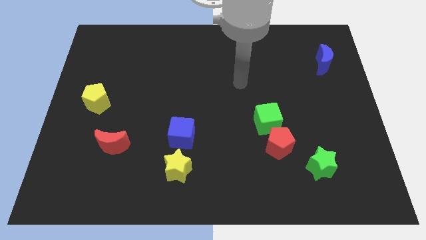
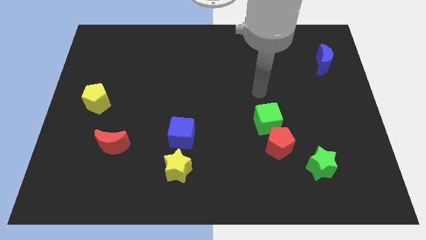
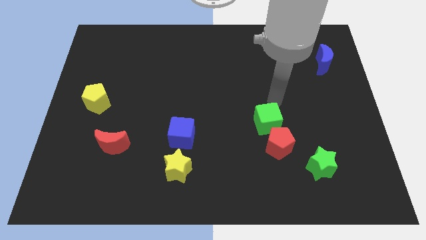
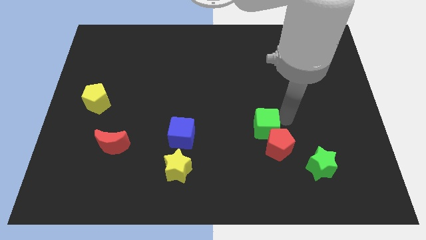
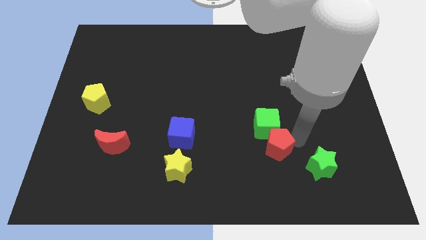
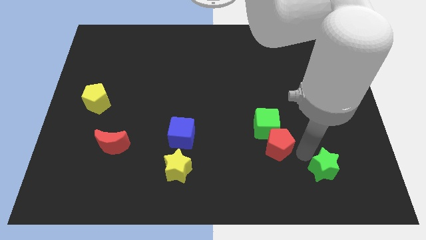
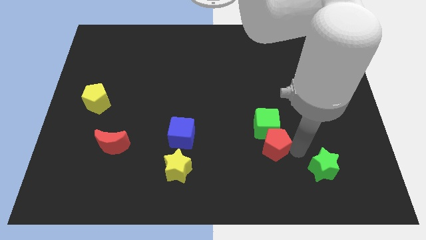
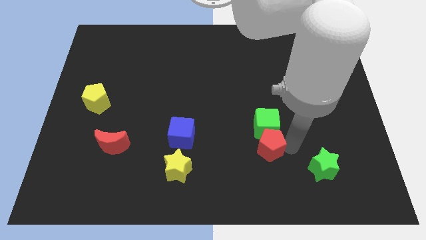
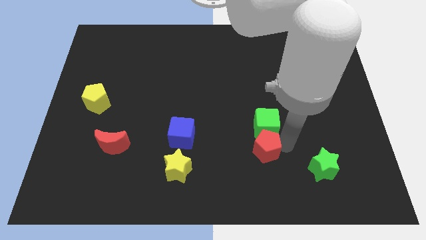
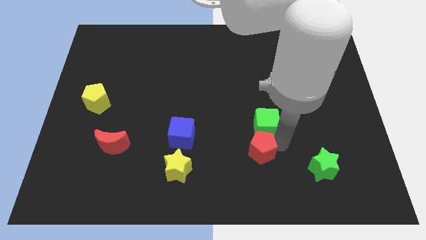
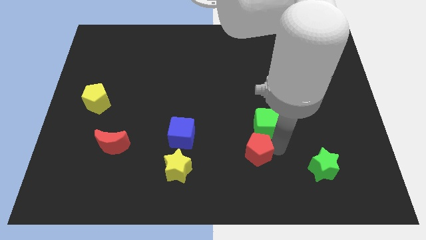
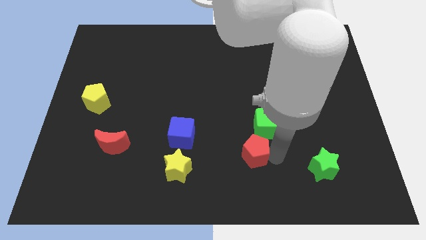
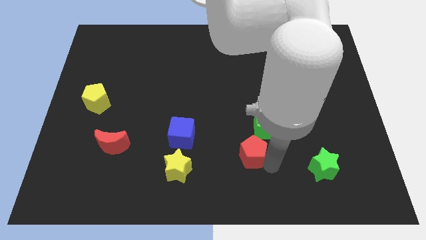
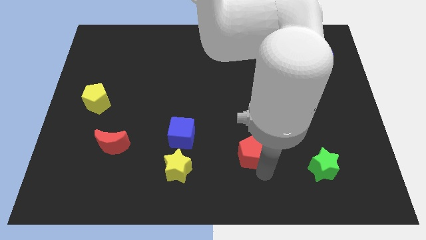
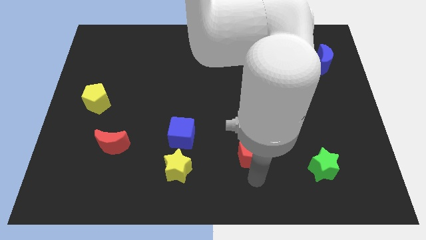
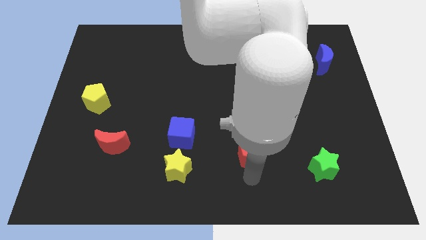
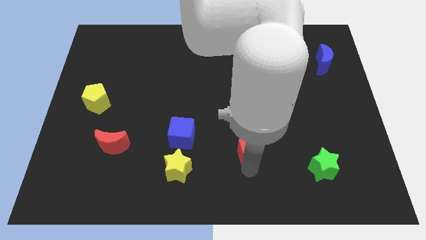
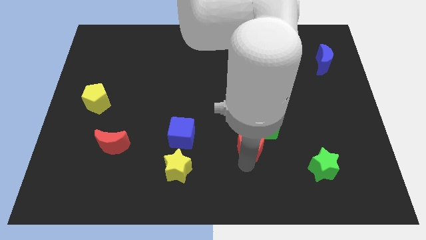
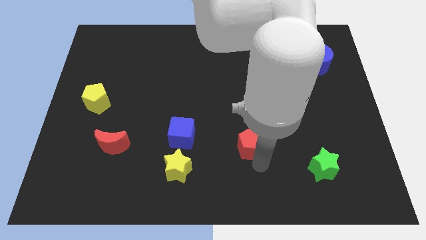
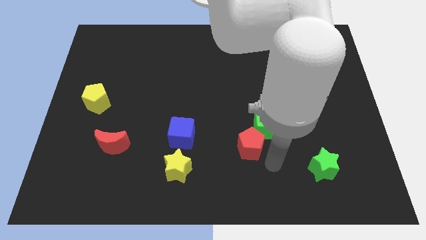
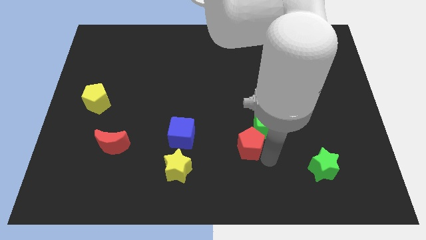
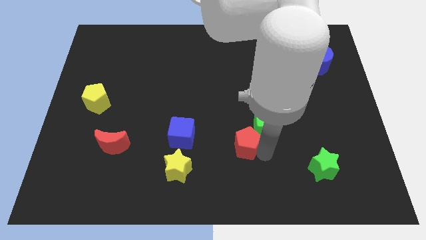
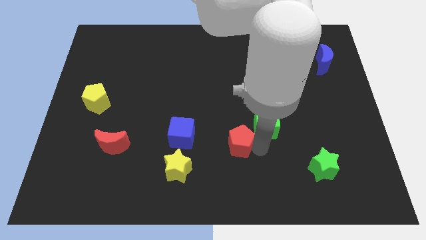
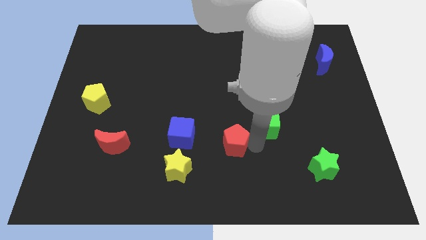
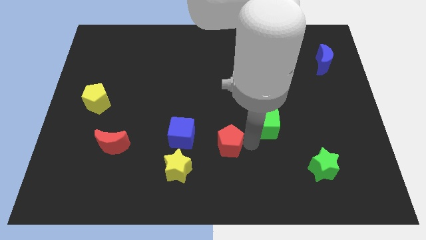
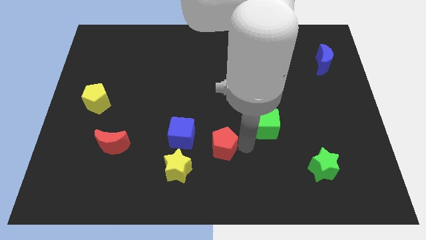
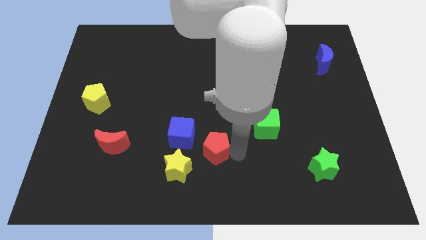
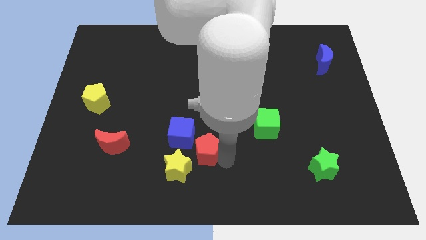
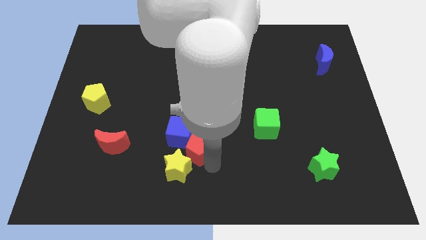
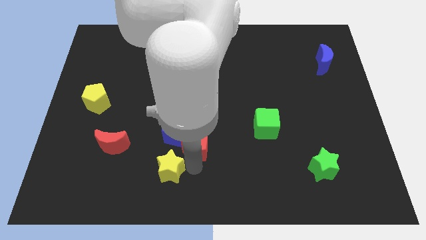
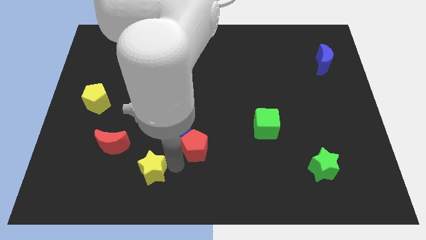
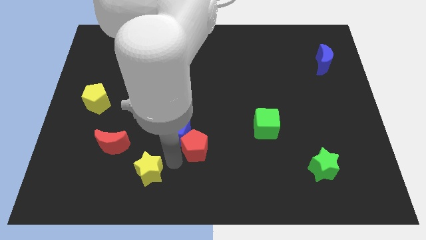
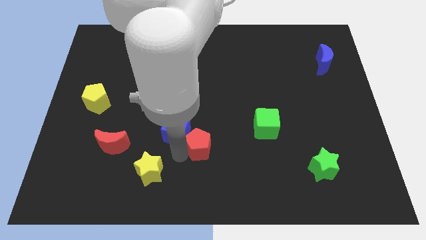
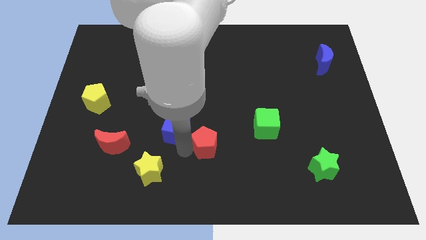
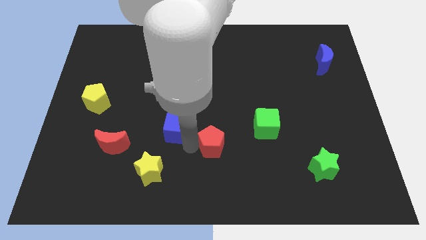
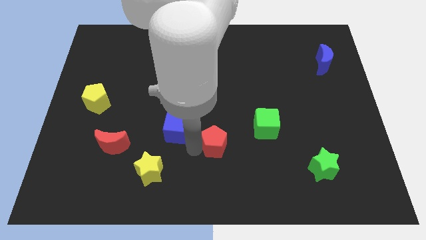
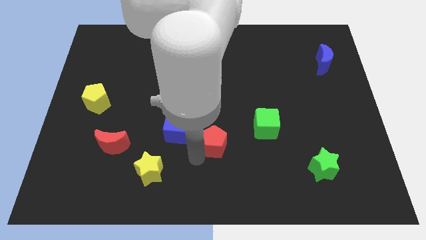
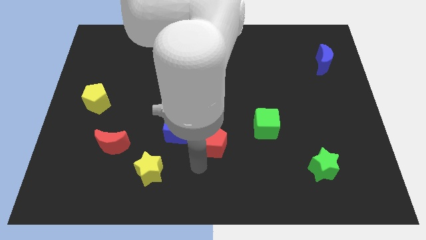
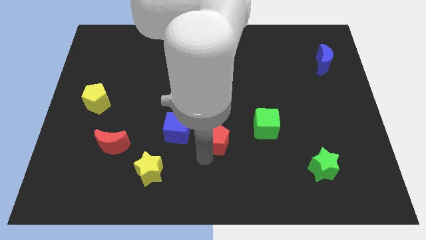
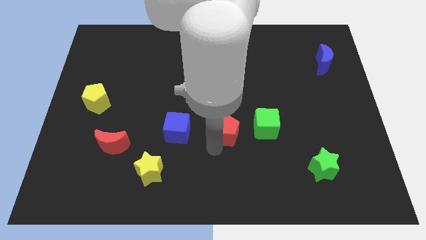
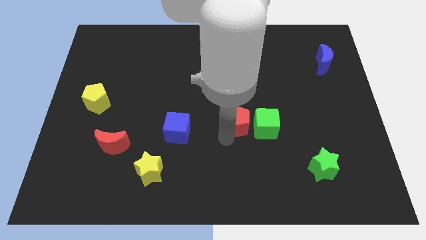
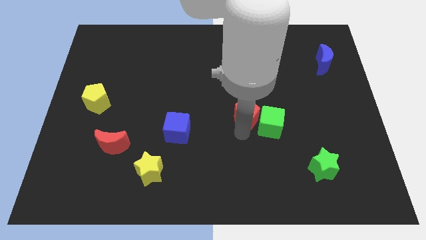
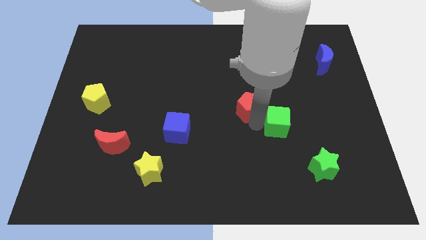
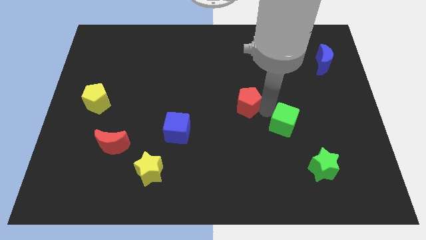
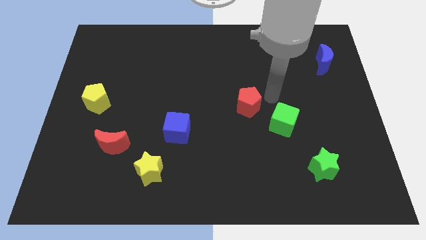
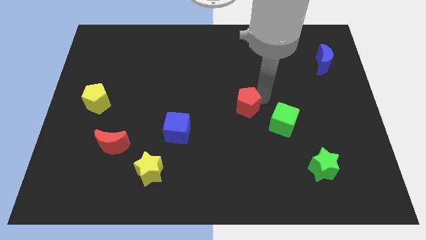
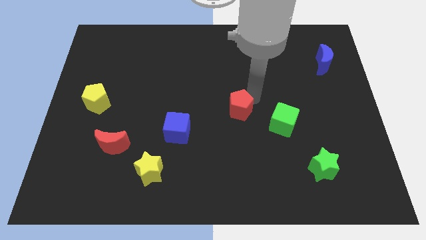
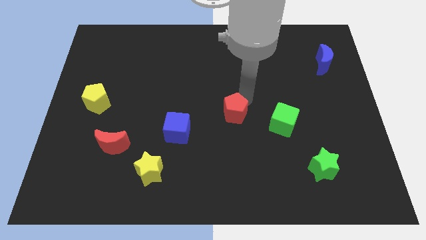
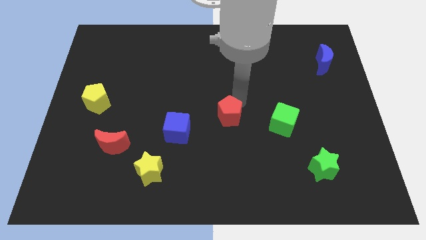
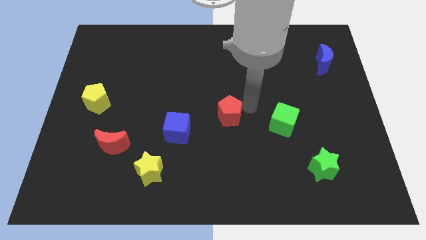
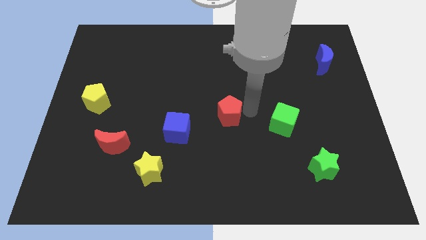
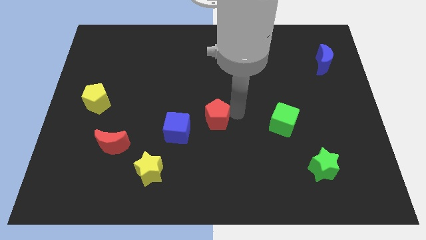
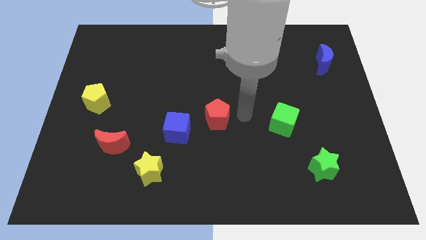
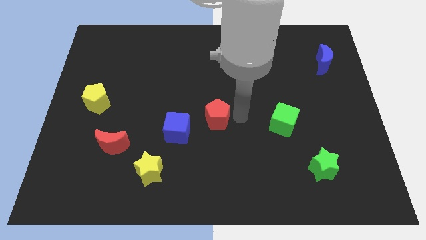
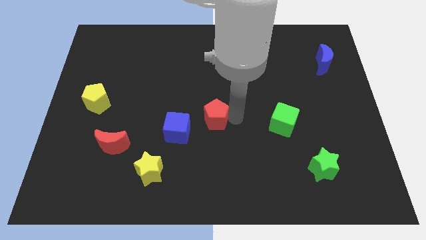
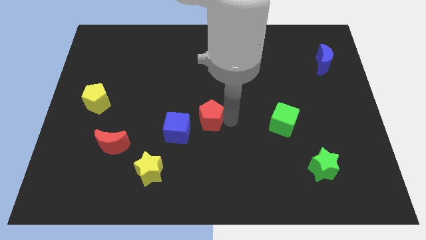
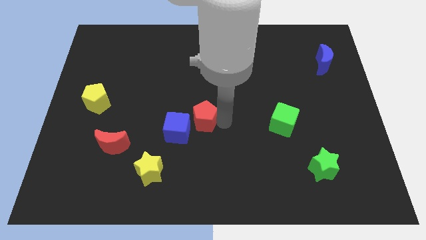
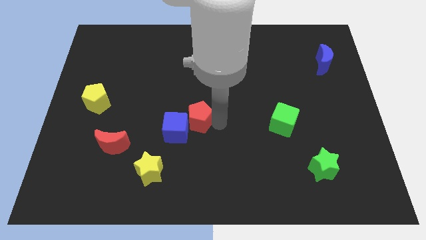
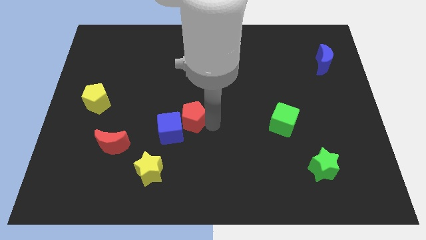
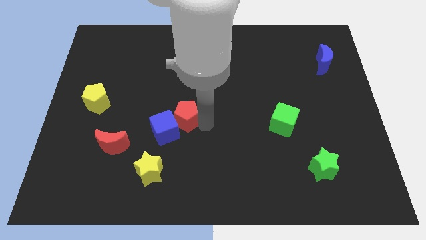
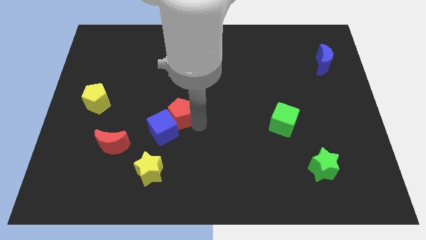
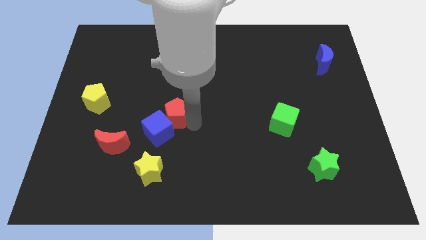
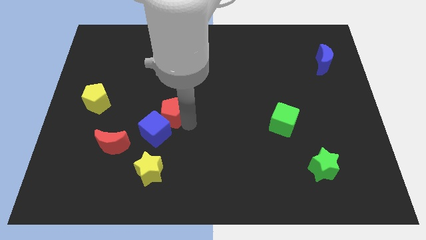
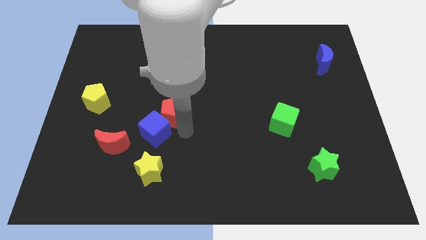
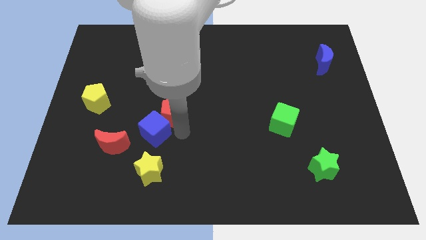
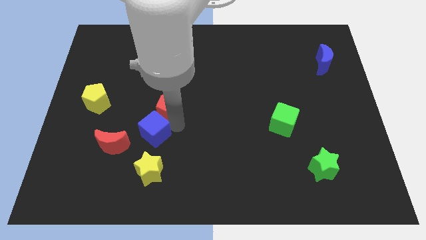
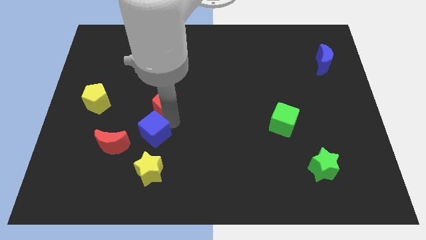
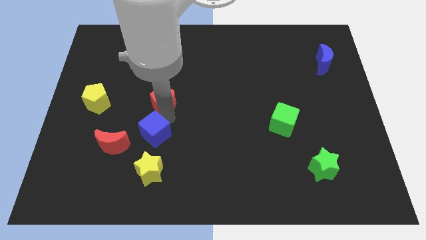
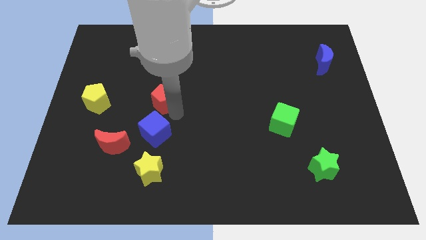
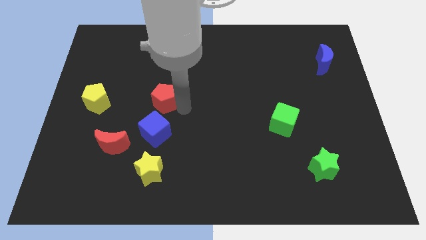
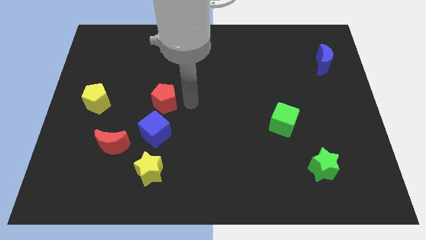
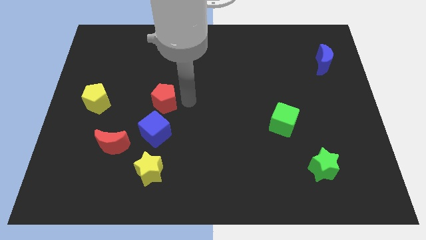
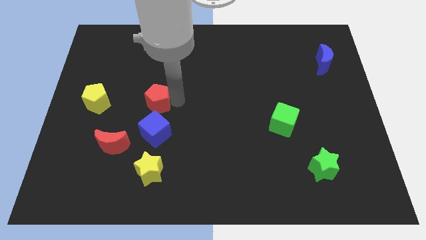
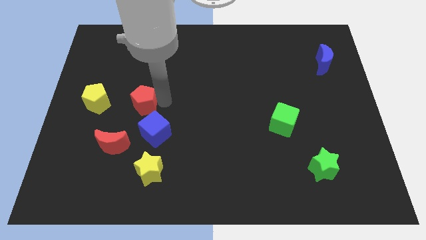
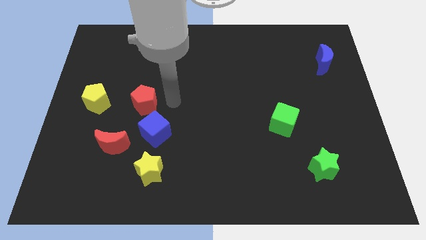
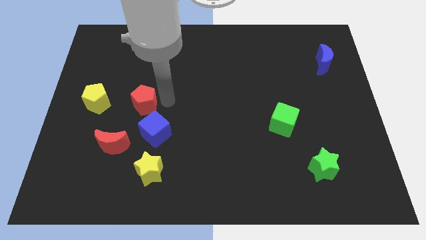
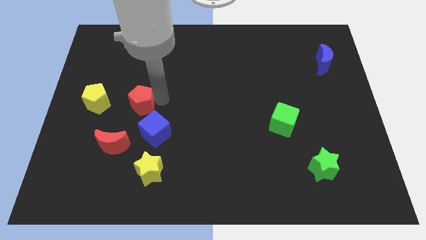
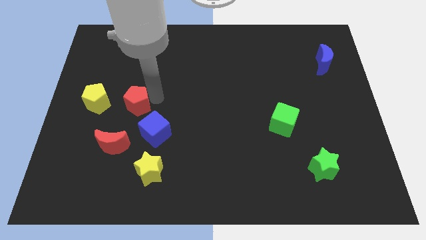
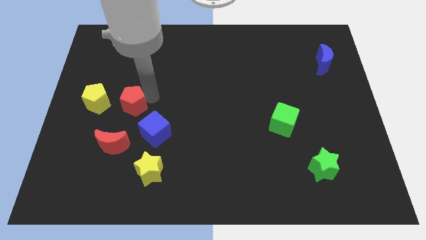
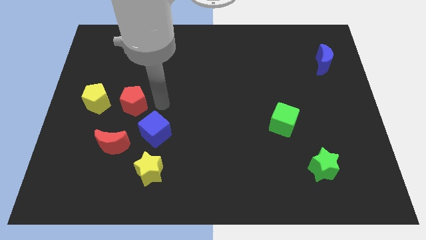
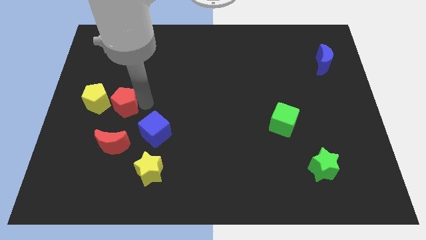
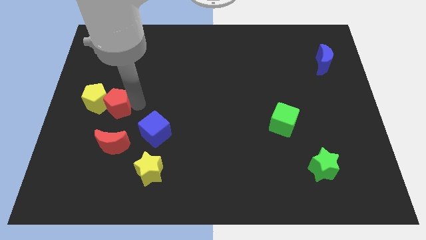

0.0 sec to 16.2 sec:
slide the red pentagon next to the yellow pentagon

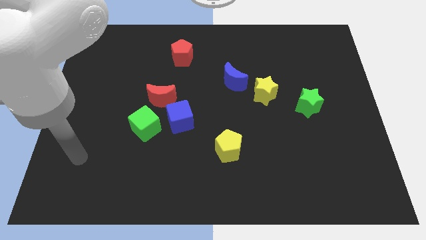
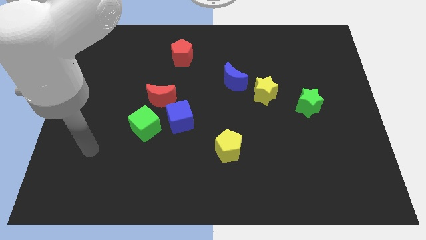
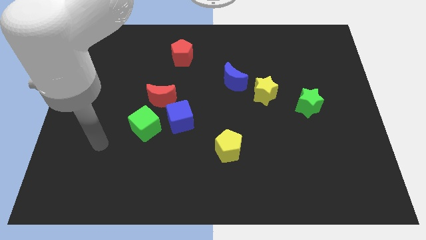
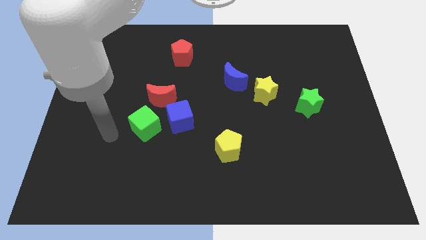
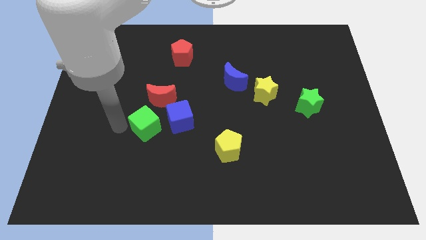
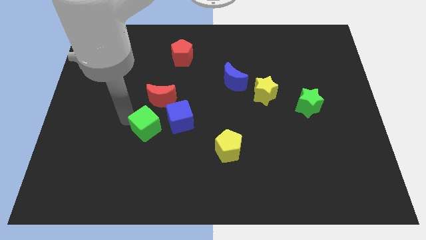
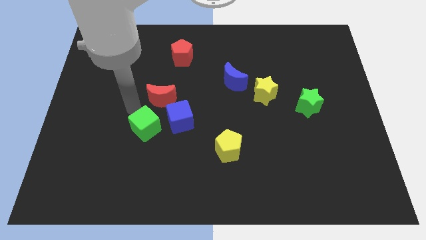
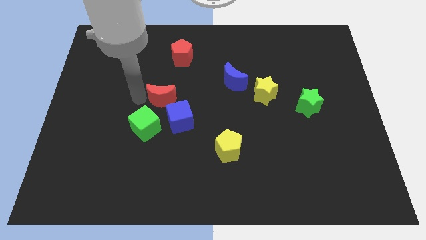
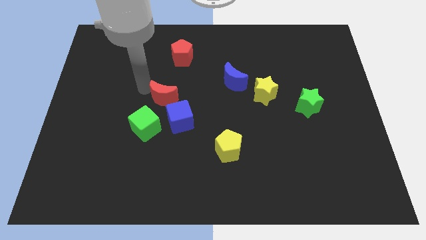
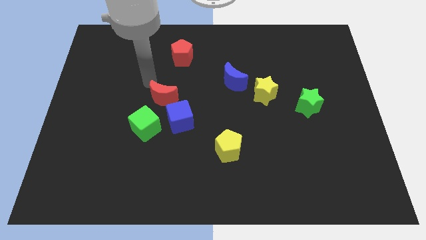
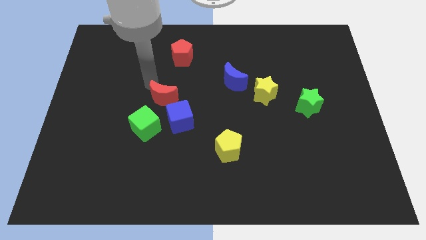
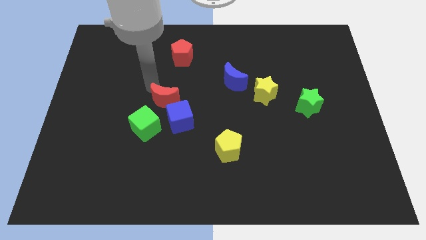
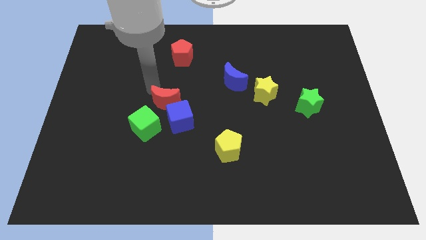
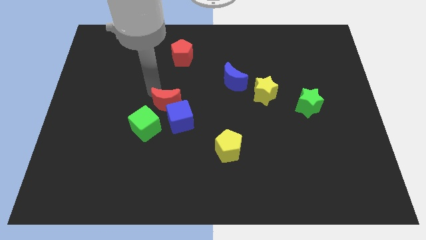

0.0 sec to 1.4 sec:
push the red moon next to the blue cube
